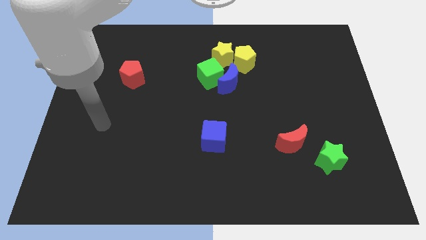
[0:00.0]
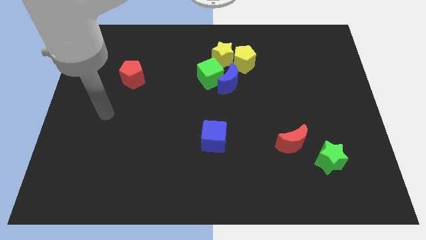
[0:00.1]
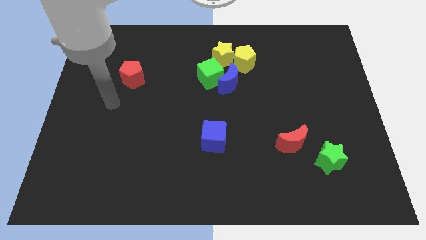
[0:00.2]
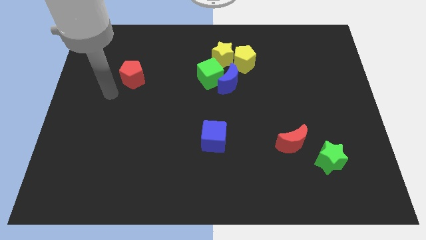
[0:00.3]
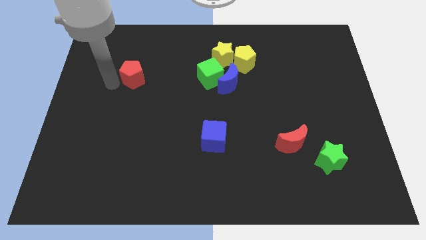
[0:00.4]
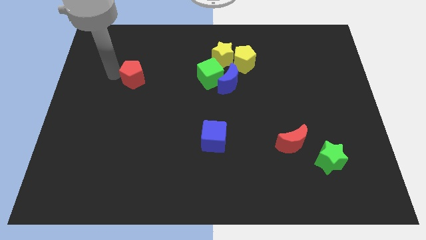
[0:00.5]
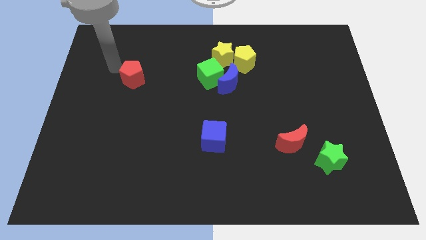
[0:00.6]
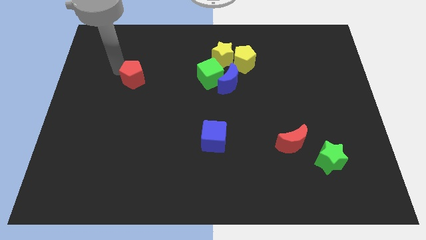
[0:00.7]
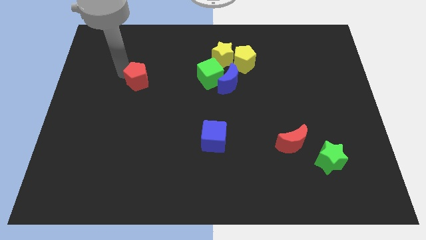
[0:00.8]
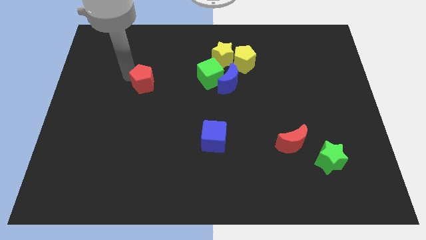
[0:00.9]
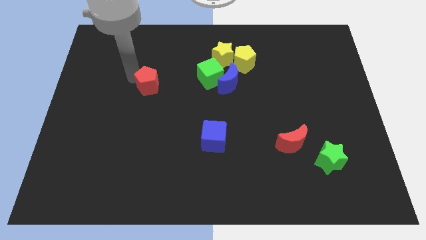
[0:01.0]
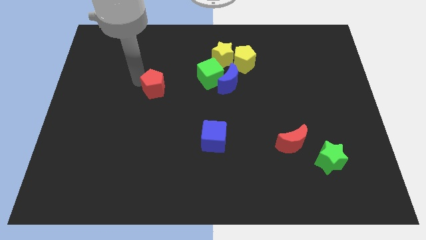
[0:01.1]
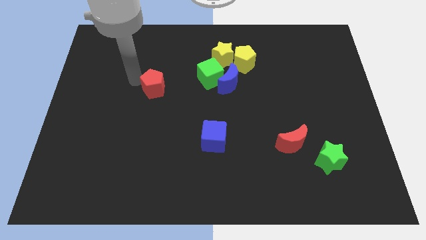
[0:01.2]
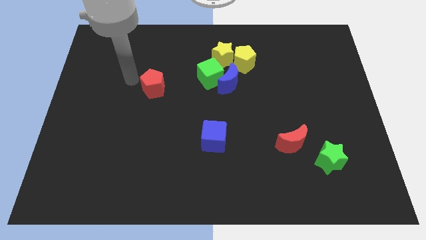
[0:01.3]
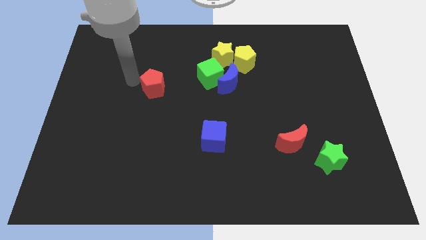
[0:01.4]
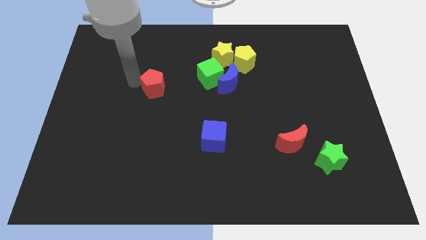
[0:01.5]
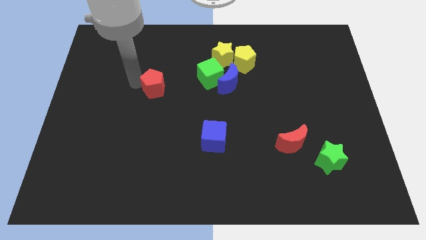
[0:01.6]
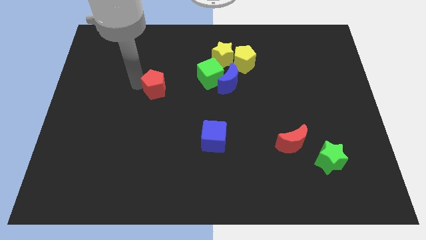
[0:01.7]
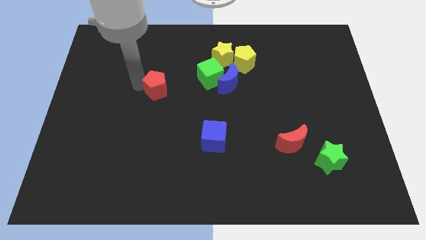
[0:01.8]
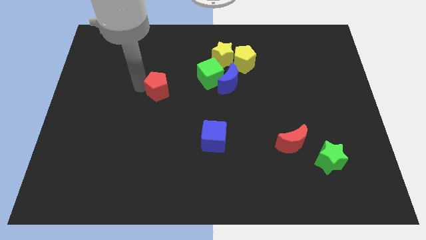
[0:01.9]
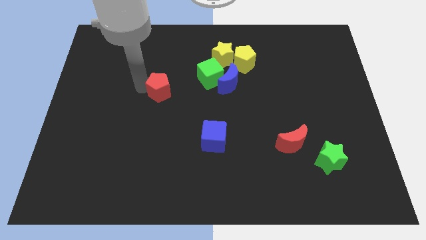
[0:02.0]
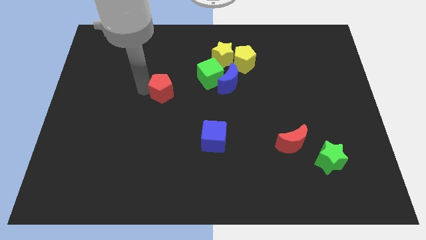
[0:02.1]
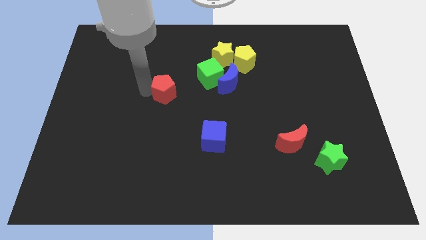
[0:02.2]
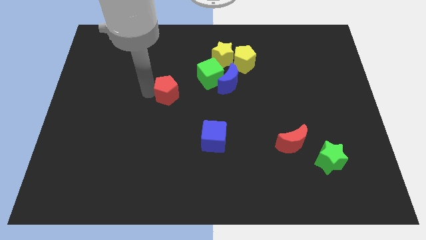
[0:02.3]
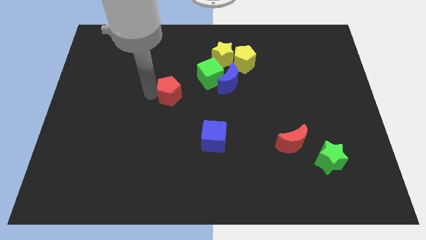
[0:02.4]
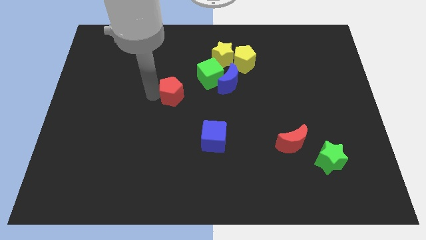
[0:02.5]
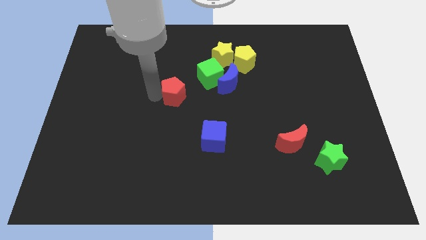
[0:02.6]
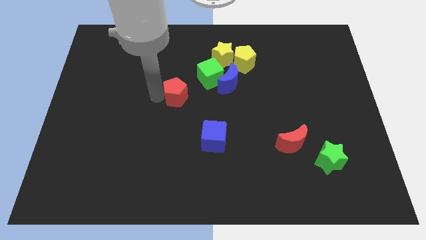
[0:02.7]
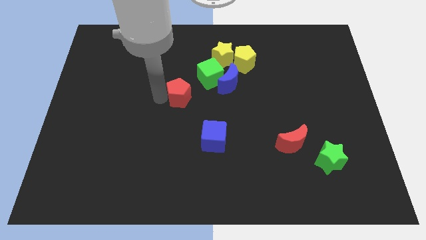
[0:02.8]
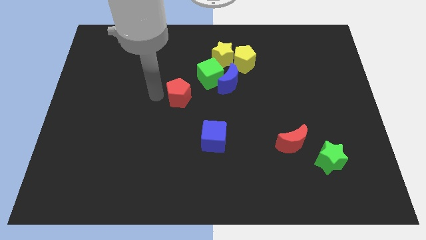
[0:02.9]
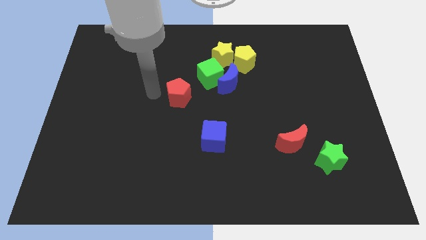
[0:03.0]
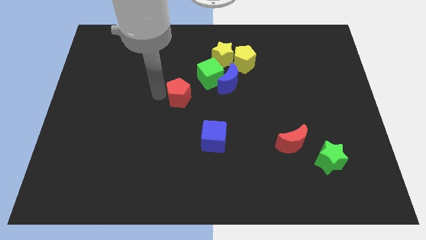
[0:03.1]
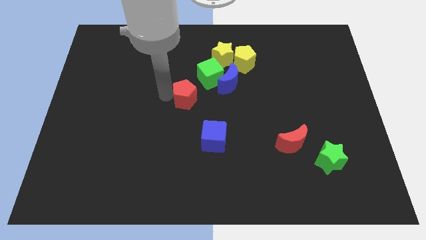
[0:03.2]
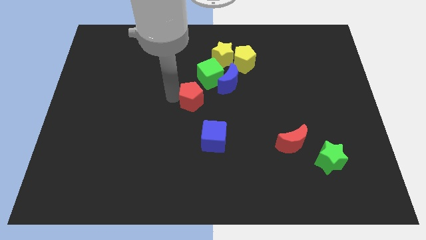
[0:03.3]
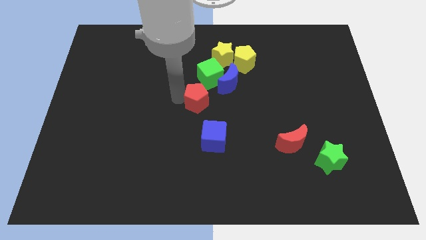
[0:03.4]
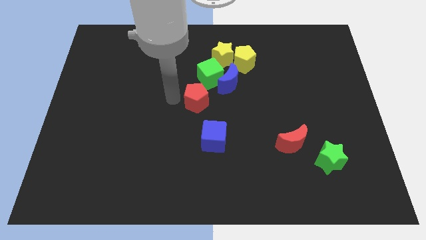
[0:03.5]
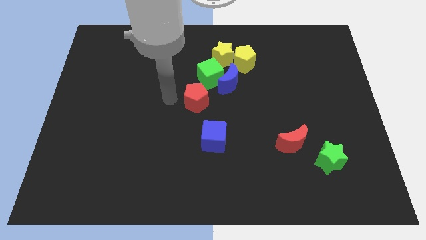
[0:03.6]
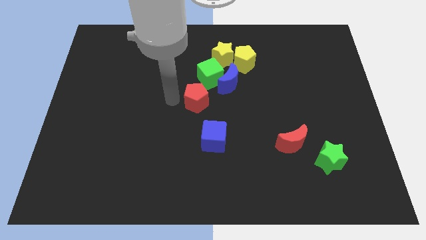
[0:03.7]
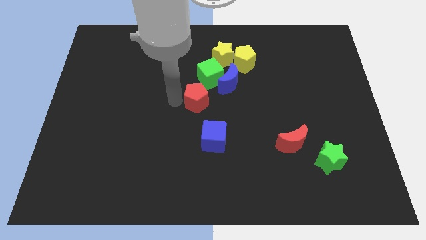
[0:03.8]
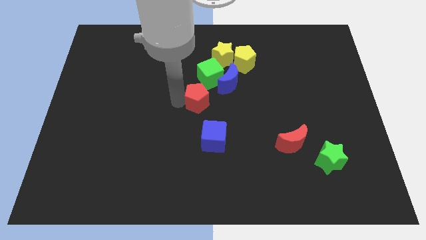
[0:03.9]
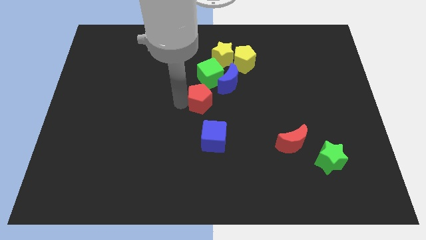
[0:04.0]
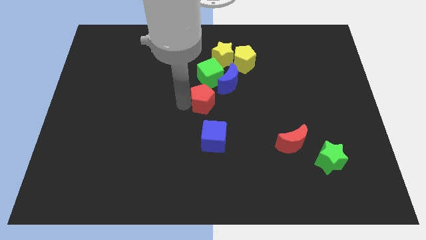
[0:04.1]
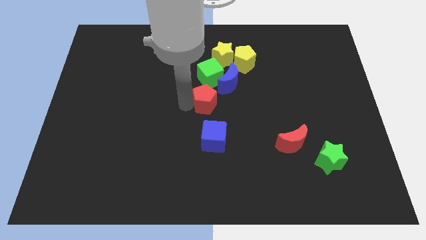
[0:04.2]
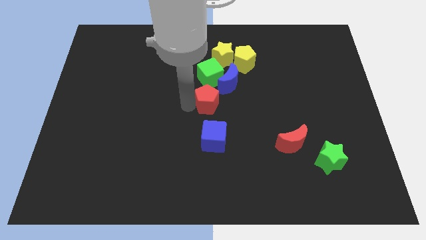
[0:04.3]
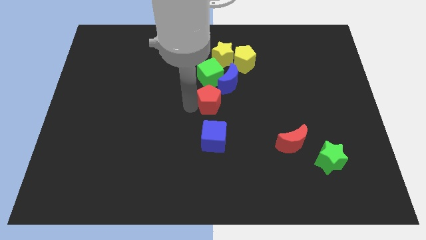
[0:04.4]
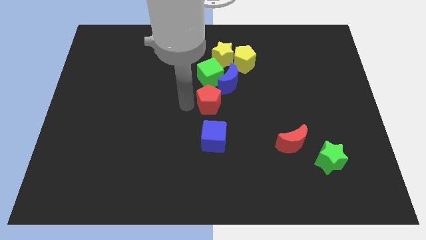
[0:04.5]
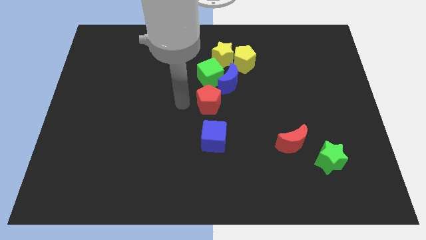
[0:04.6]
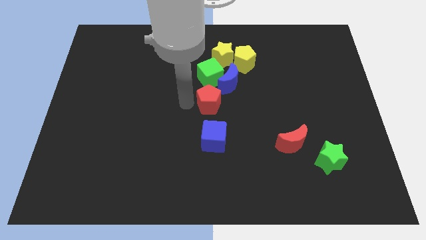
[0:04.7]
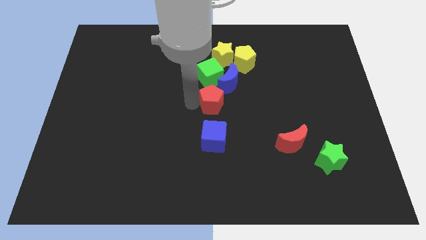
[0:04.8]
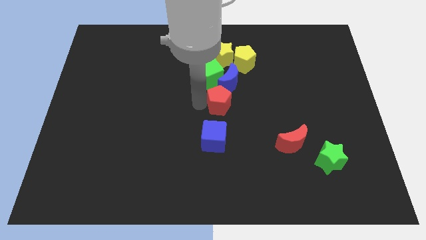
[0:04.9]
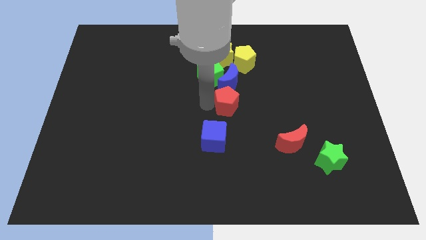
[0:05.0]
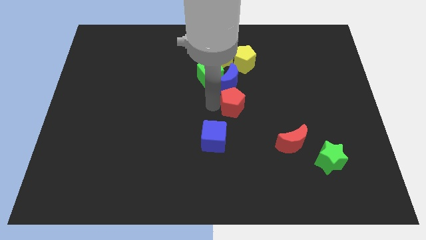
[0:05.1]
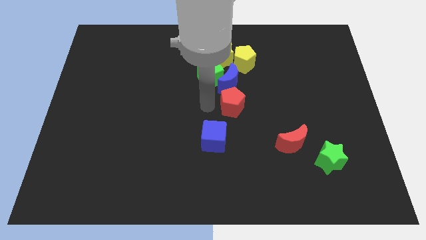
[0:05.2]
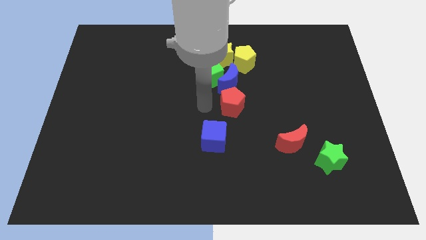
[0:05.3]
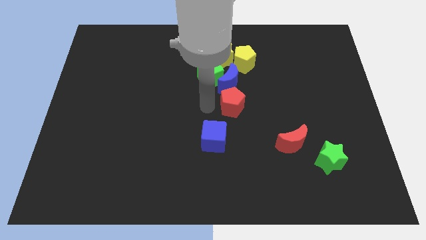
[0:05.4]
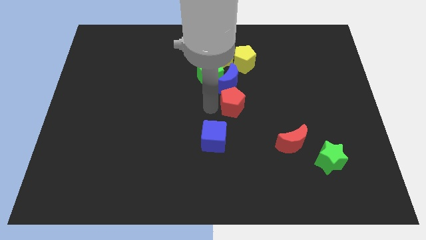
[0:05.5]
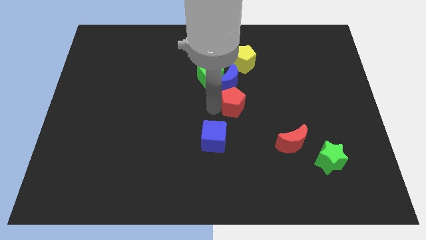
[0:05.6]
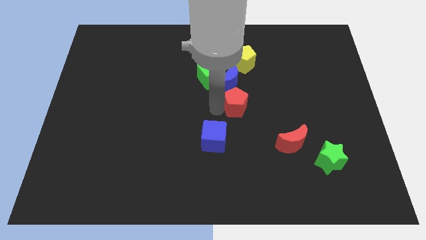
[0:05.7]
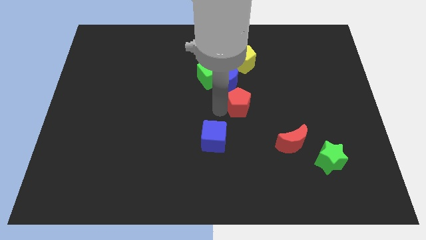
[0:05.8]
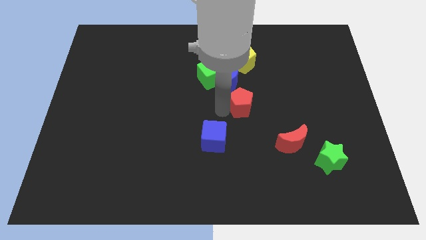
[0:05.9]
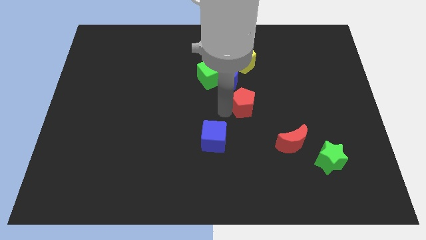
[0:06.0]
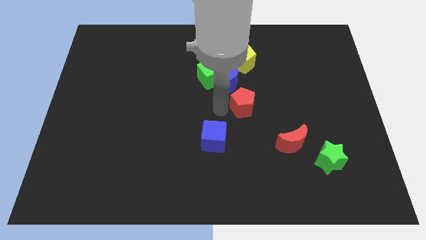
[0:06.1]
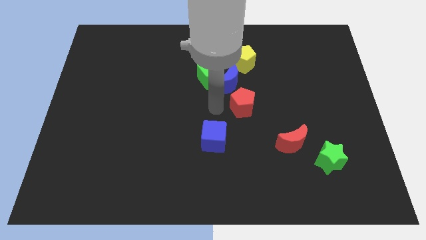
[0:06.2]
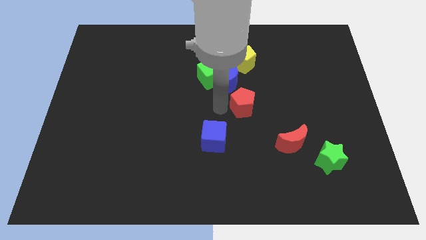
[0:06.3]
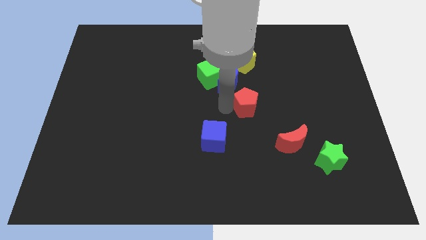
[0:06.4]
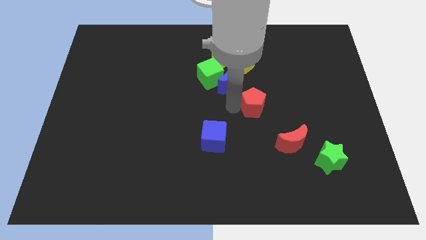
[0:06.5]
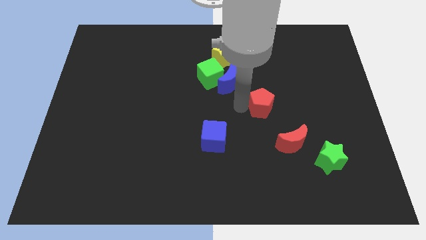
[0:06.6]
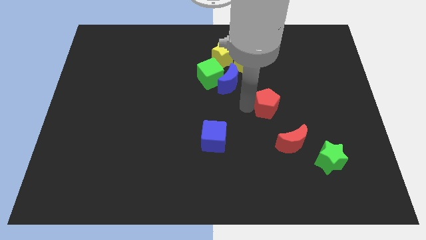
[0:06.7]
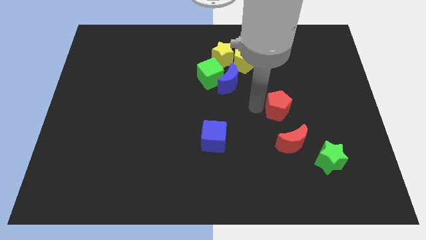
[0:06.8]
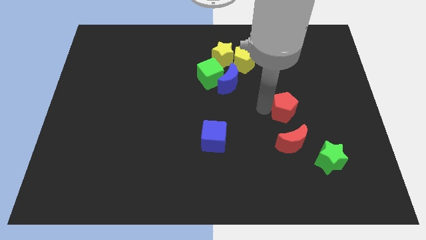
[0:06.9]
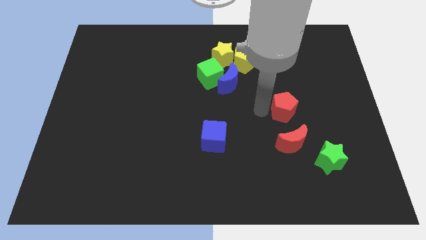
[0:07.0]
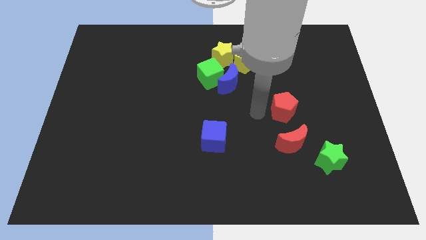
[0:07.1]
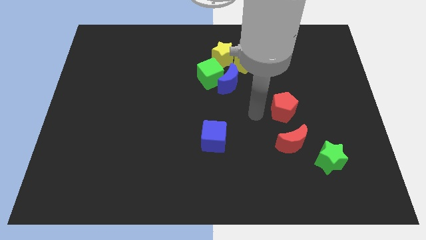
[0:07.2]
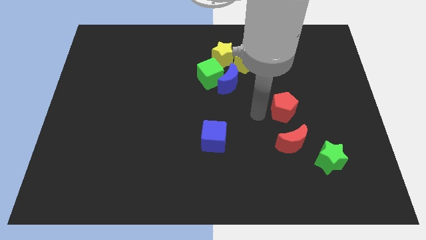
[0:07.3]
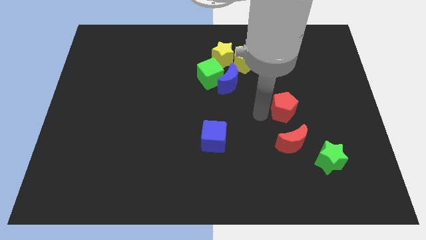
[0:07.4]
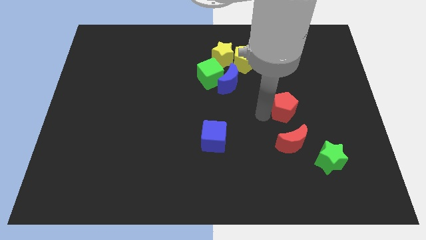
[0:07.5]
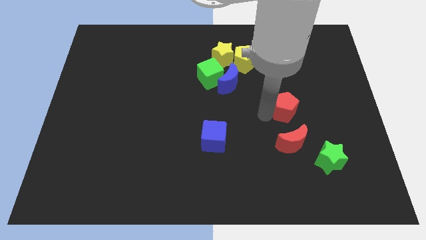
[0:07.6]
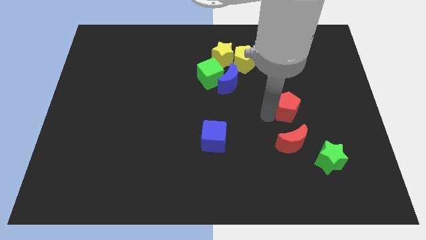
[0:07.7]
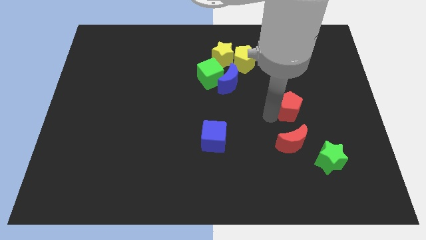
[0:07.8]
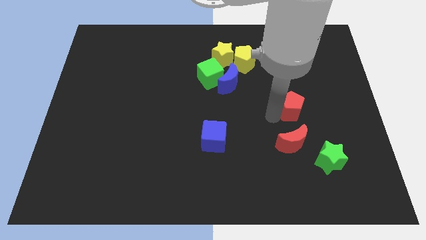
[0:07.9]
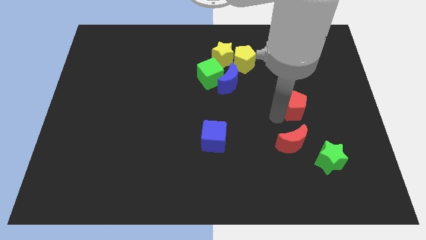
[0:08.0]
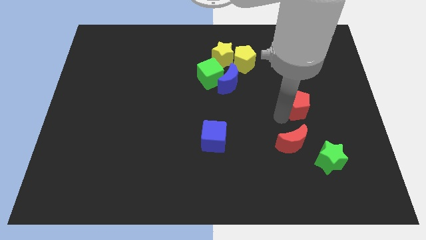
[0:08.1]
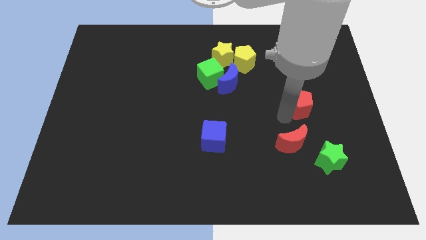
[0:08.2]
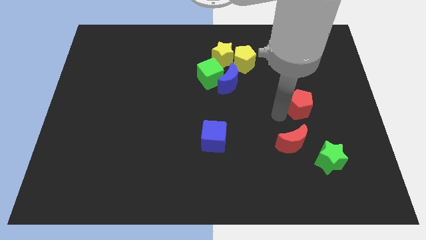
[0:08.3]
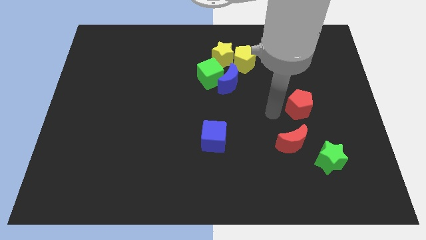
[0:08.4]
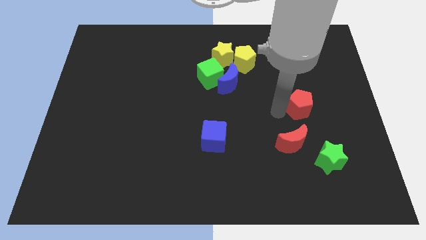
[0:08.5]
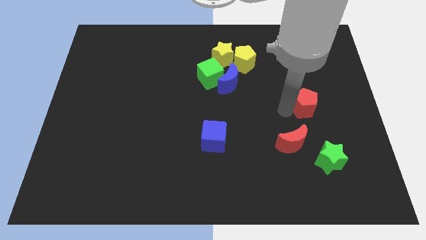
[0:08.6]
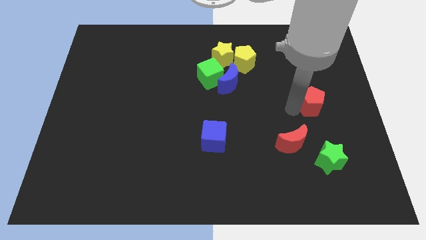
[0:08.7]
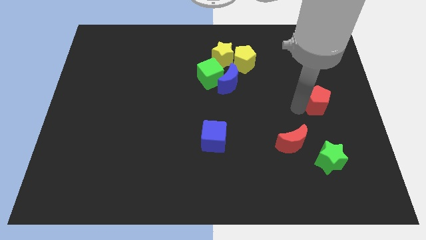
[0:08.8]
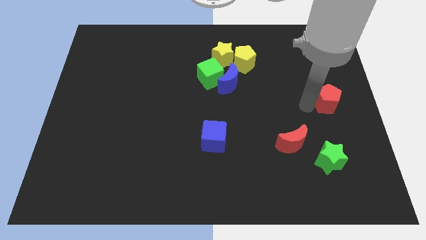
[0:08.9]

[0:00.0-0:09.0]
put the red pentagon to the right side
